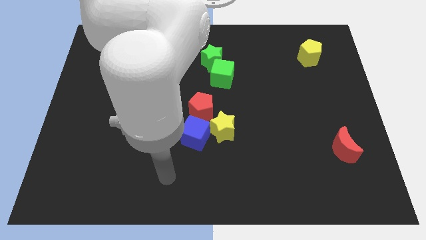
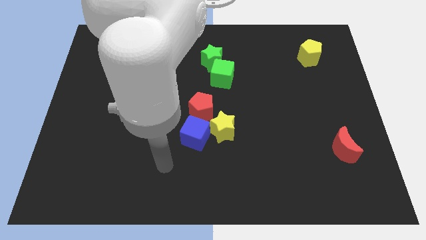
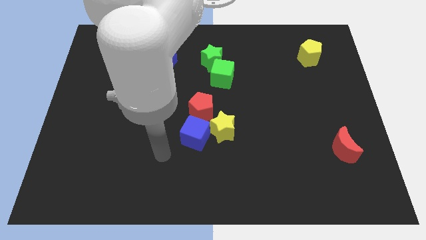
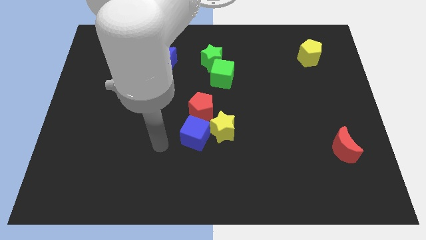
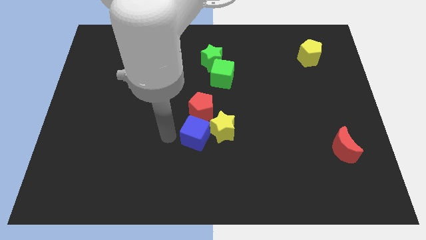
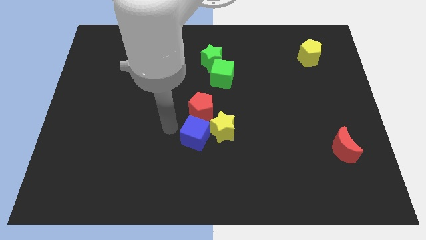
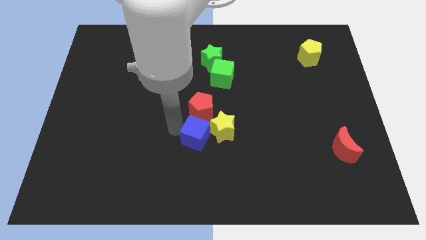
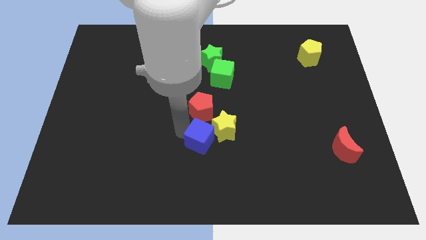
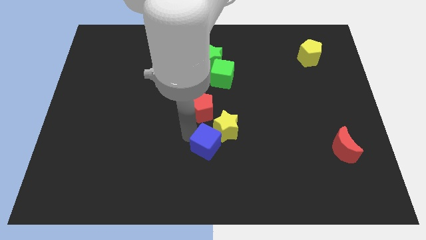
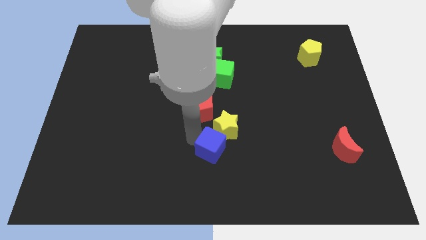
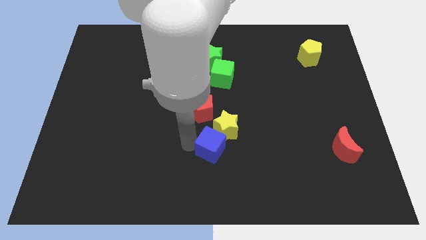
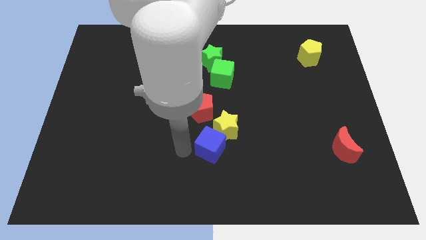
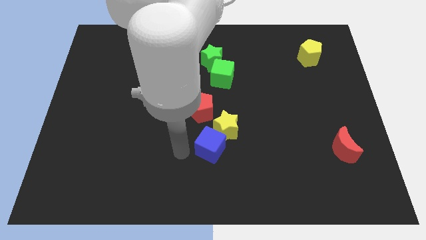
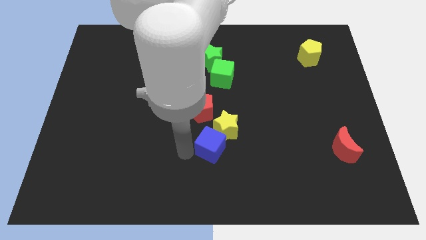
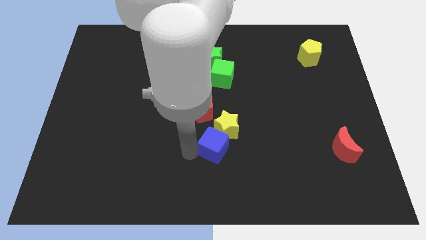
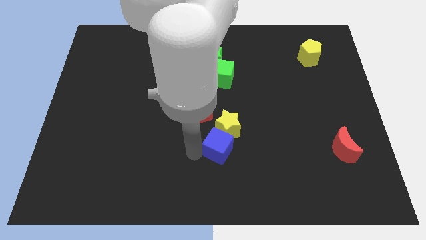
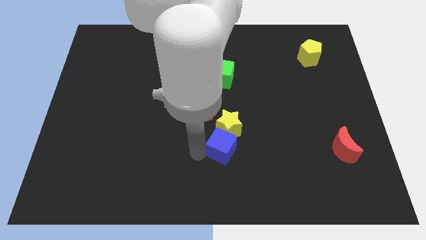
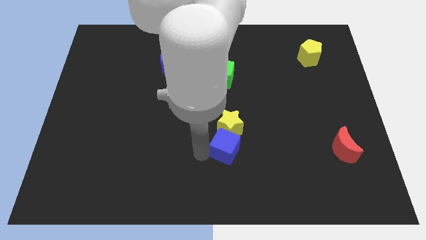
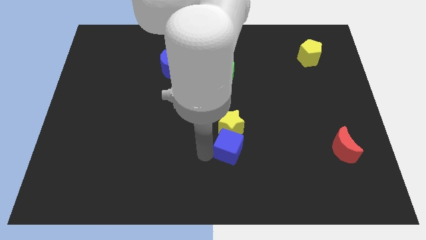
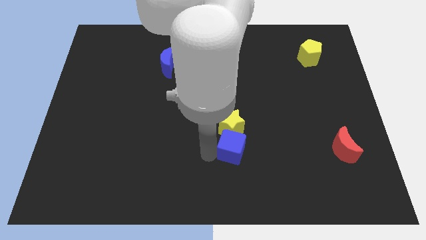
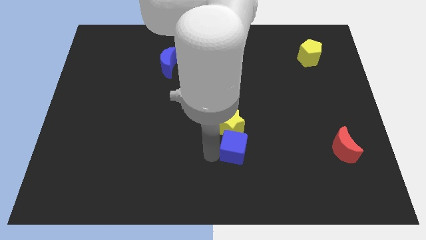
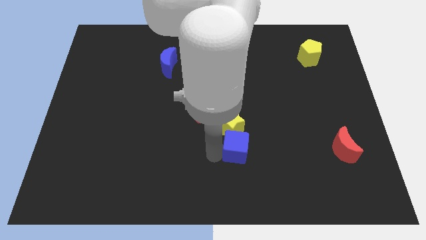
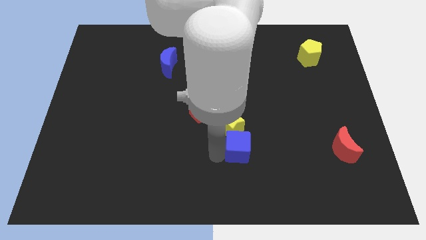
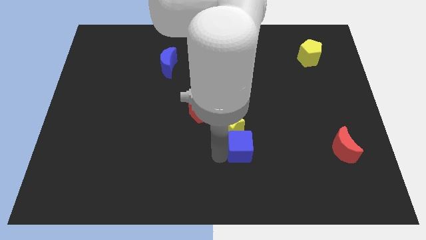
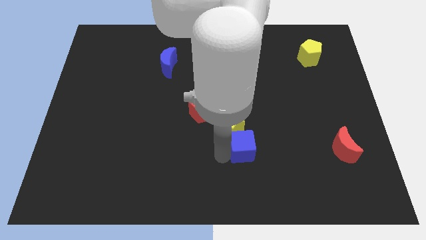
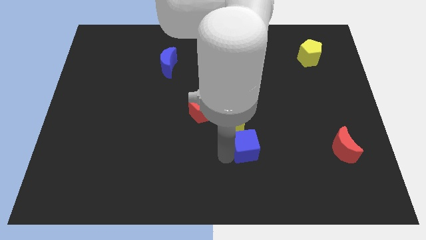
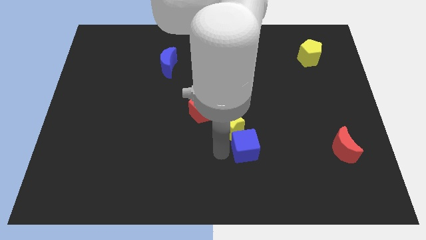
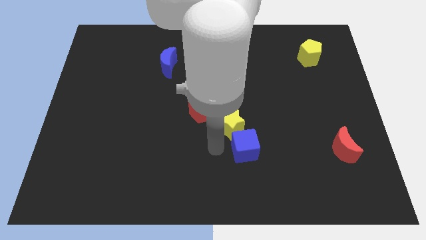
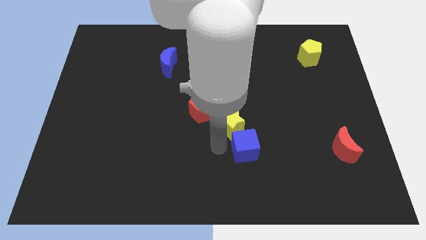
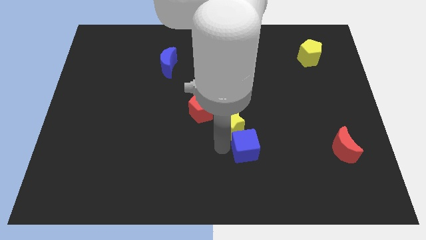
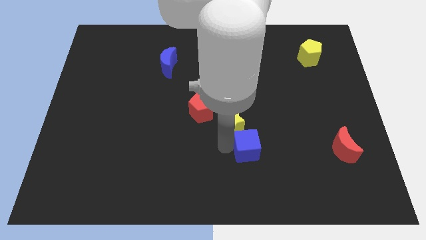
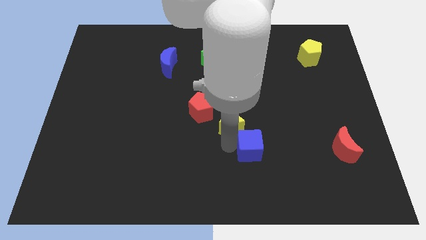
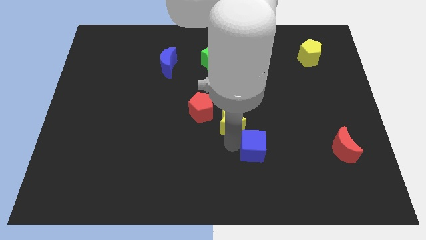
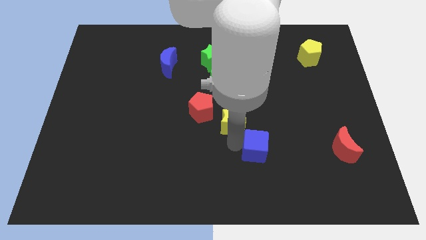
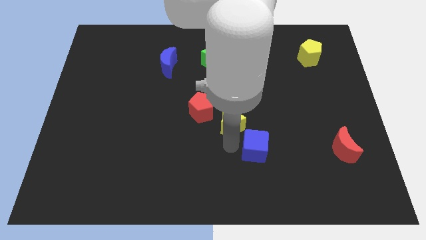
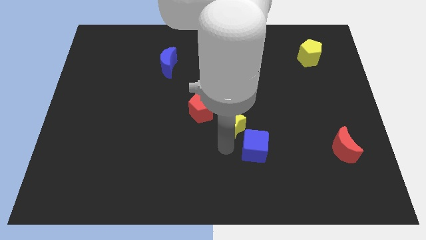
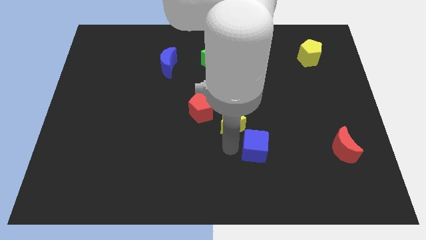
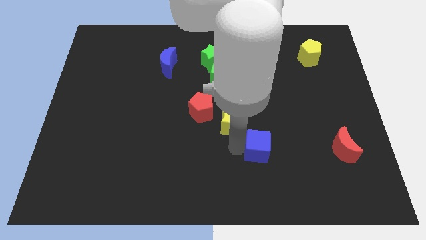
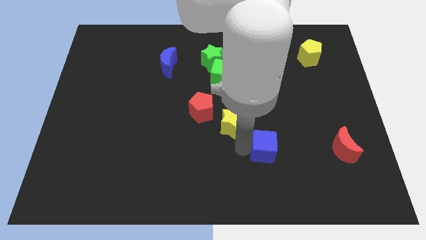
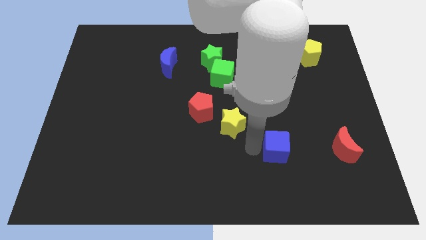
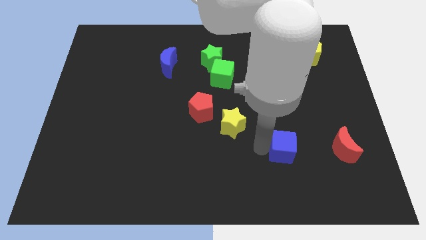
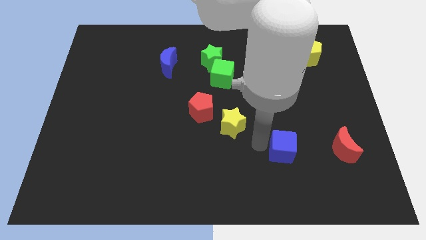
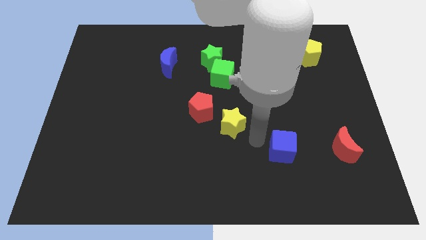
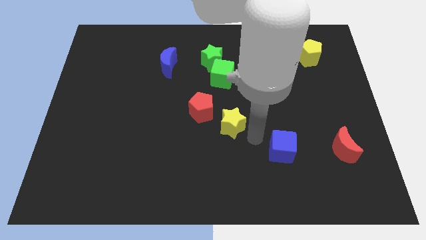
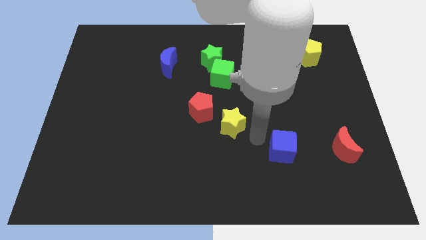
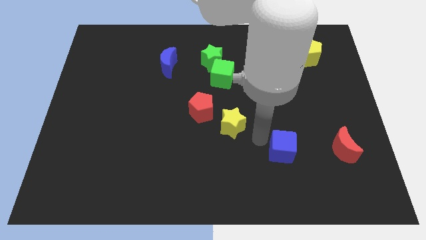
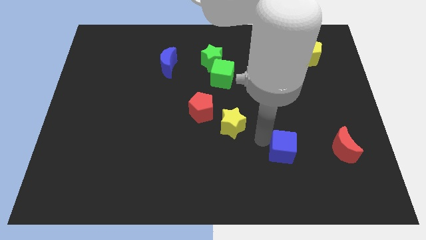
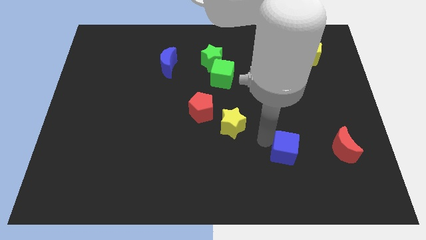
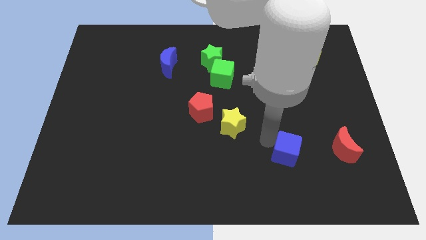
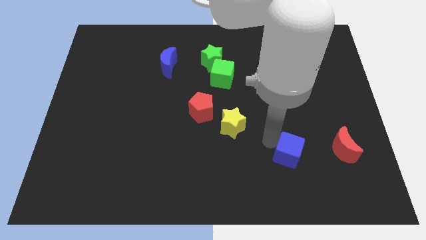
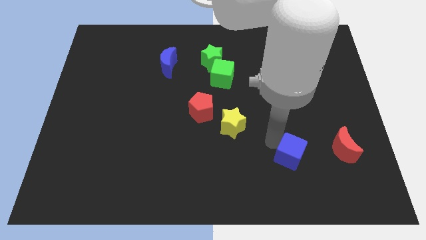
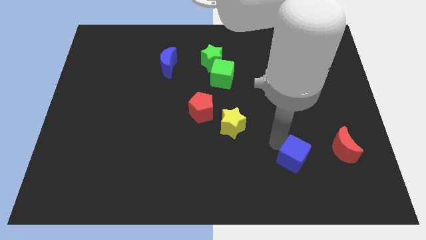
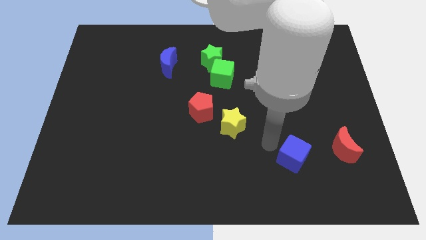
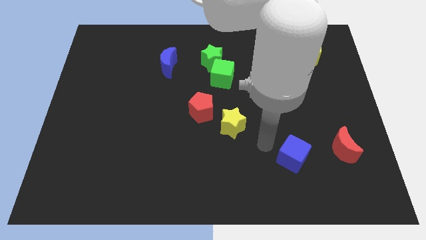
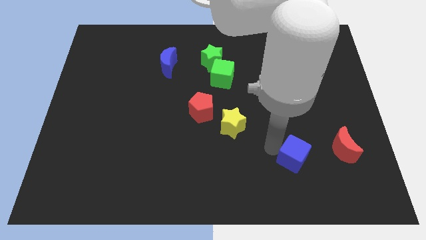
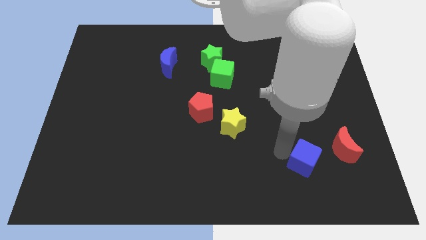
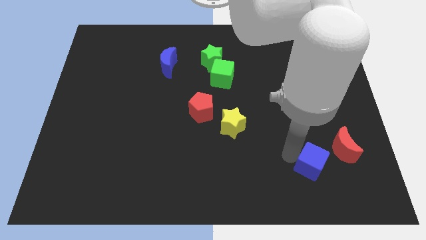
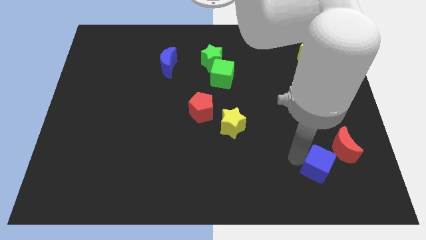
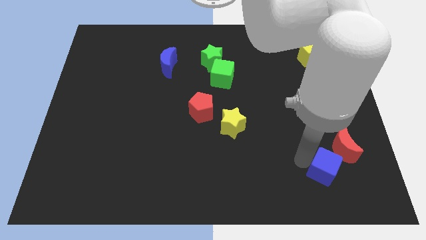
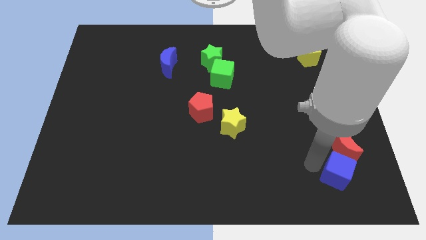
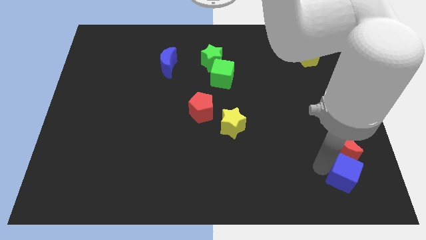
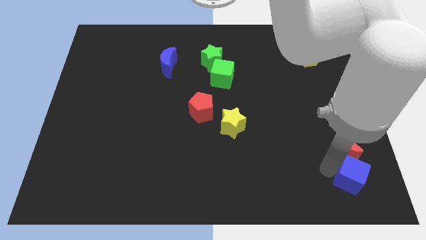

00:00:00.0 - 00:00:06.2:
push the blue cube to the bottom right corner

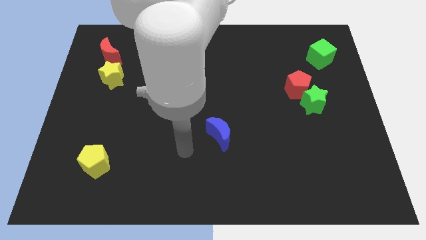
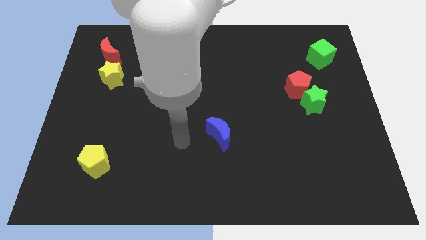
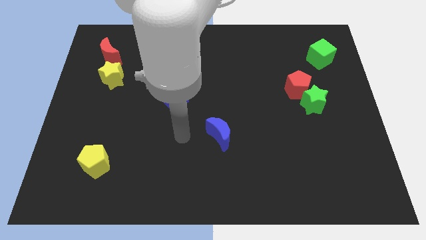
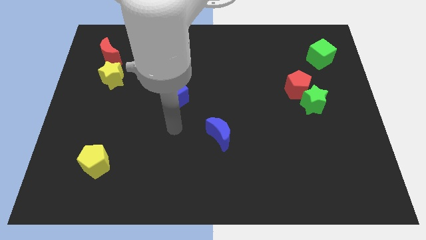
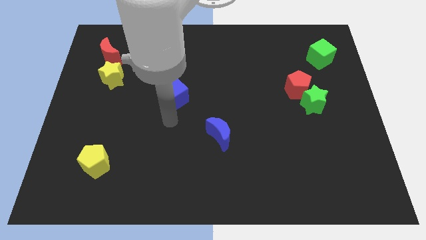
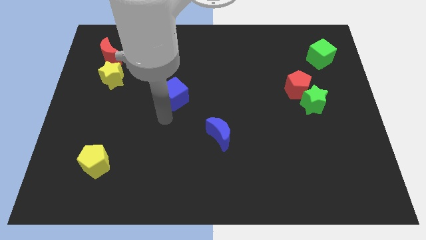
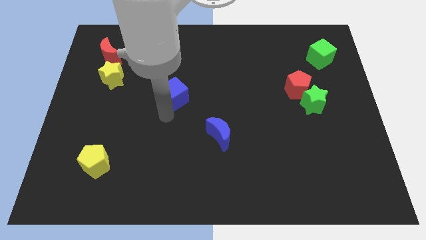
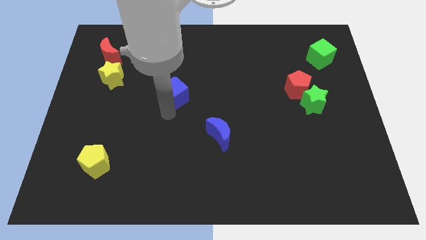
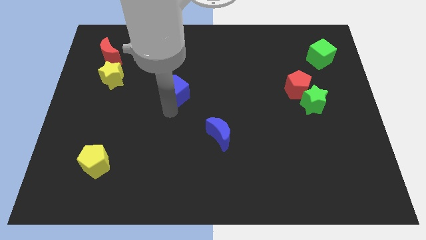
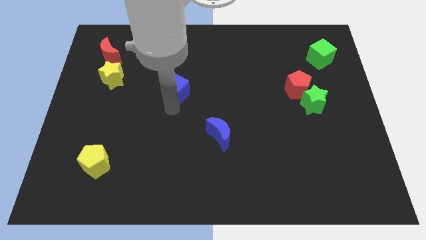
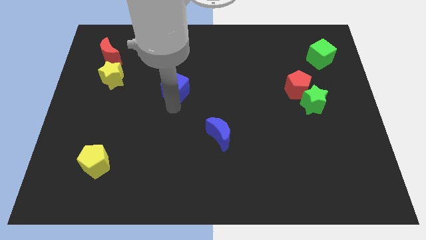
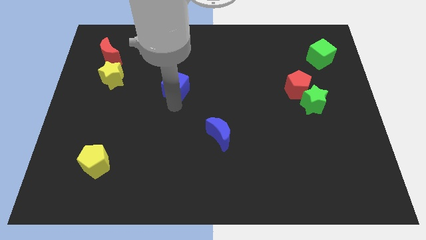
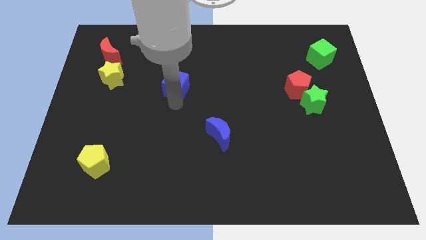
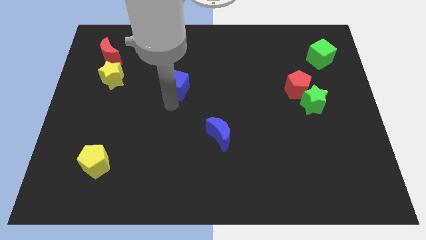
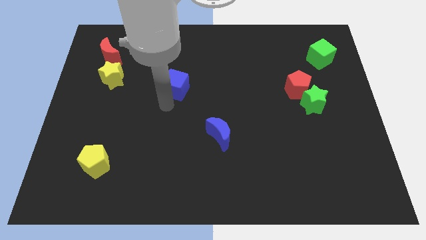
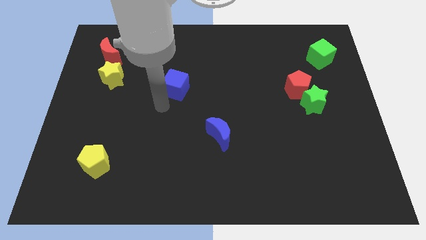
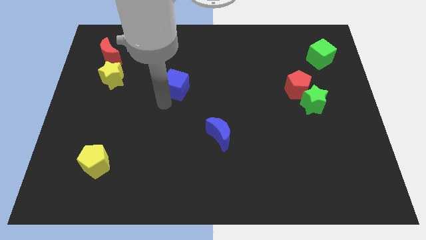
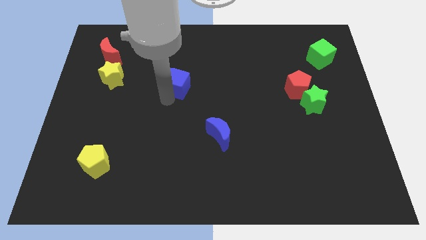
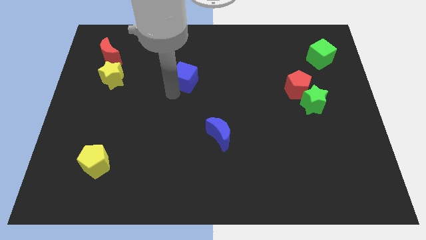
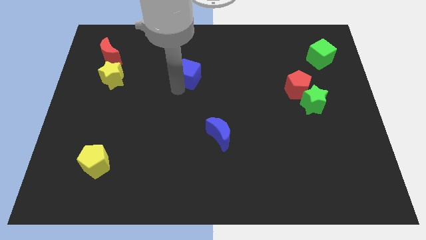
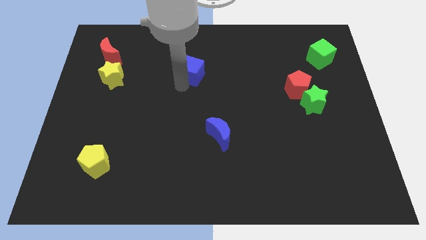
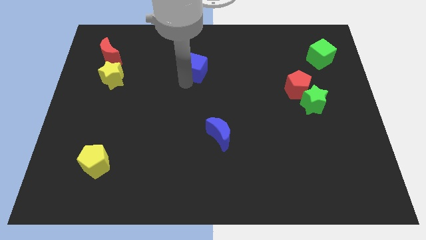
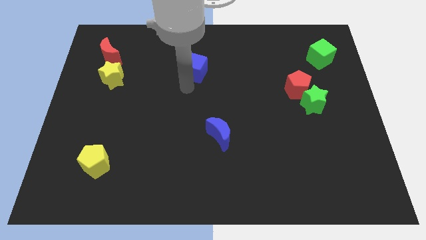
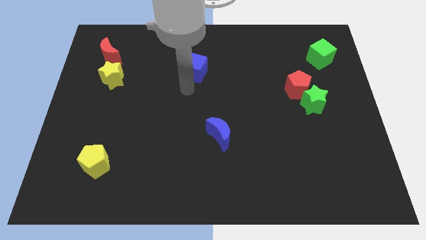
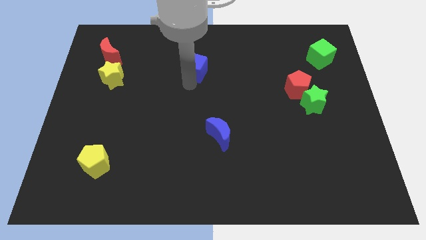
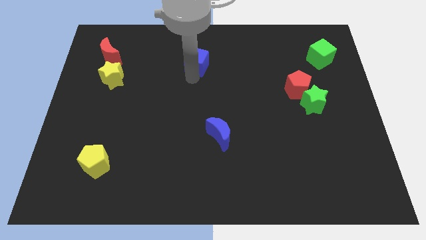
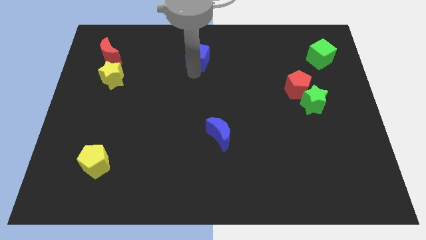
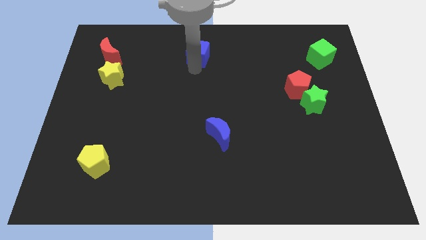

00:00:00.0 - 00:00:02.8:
slide the blue cube to the top side
